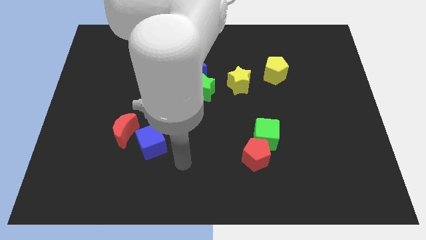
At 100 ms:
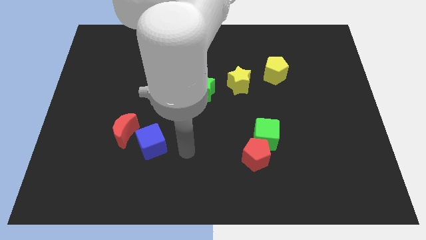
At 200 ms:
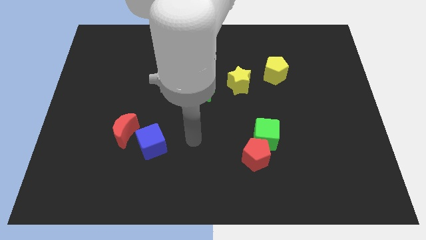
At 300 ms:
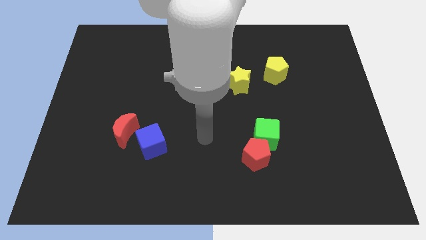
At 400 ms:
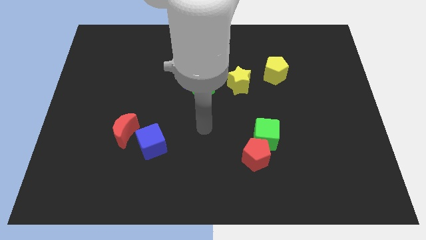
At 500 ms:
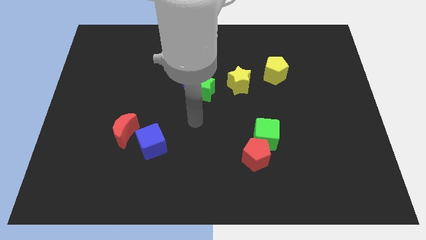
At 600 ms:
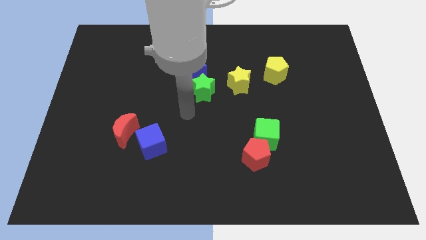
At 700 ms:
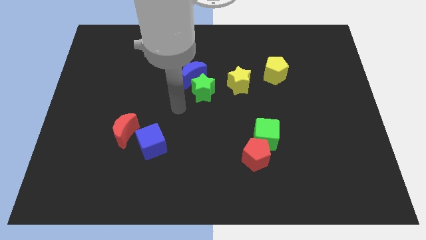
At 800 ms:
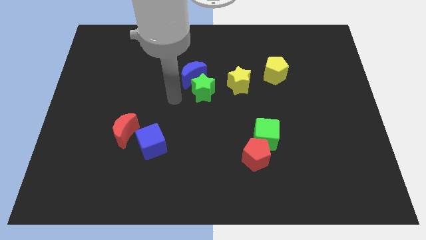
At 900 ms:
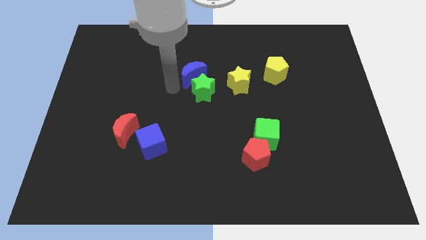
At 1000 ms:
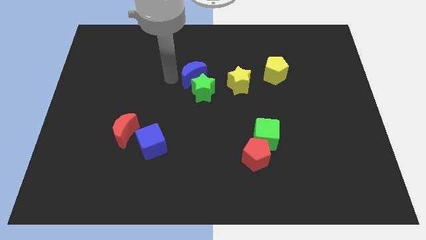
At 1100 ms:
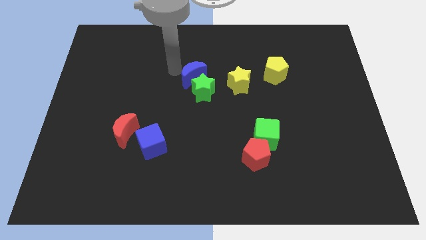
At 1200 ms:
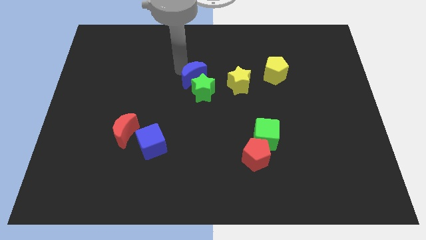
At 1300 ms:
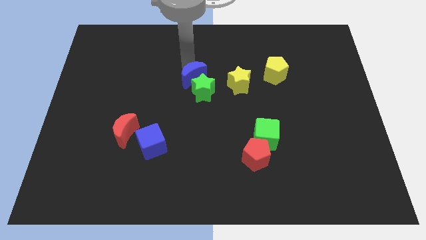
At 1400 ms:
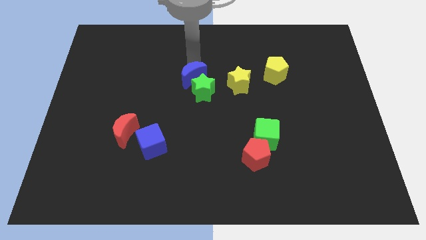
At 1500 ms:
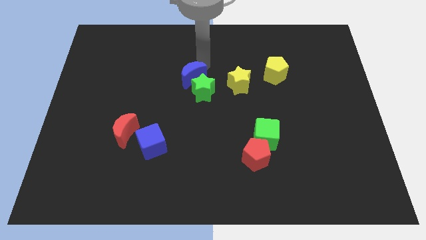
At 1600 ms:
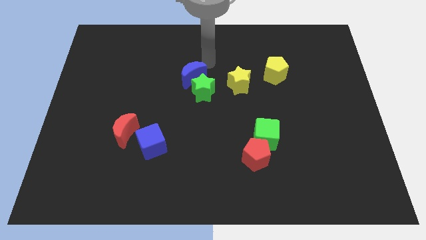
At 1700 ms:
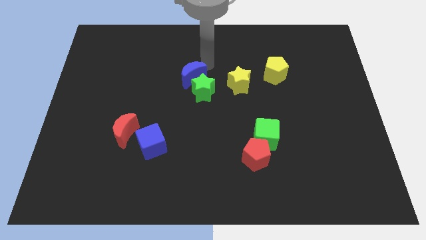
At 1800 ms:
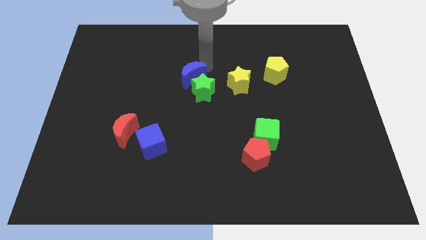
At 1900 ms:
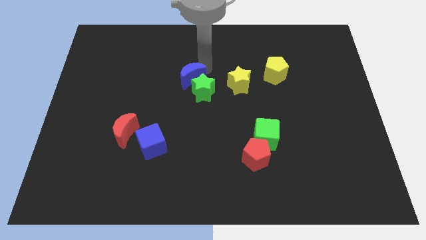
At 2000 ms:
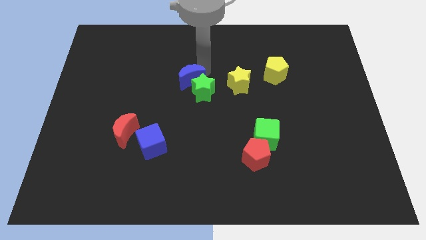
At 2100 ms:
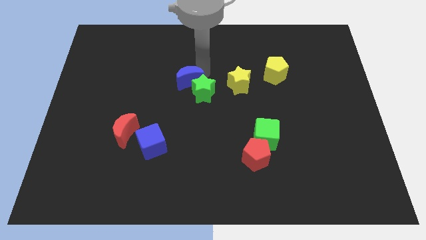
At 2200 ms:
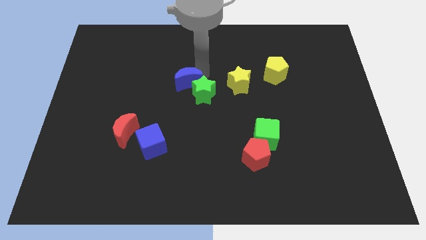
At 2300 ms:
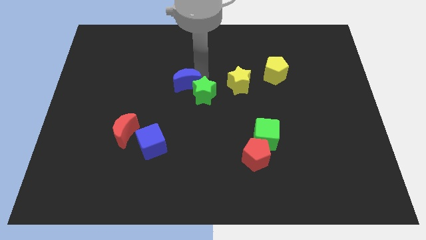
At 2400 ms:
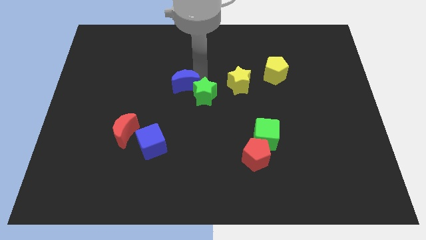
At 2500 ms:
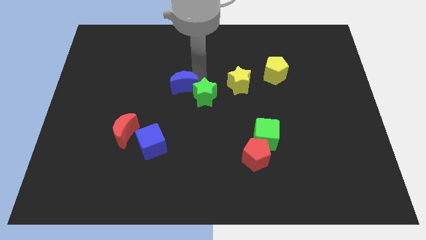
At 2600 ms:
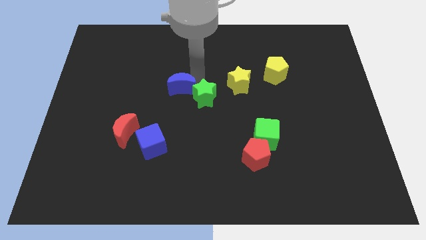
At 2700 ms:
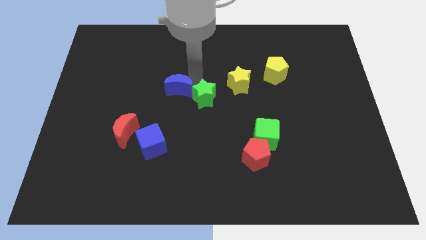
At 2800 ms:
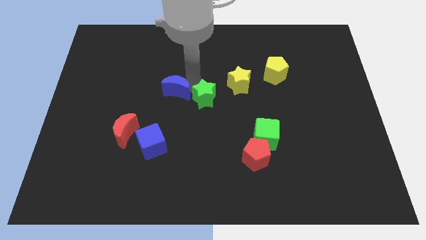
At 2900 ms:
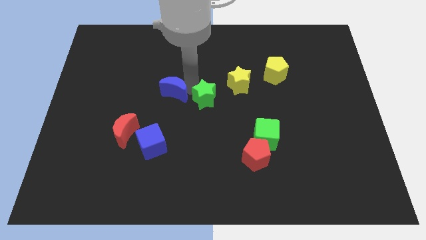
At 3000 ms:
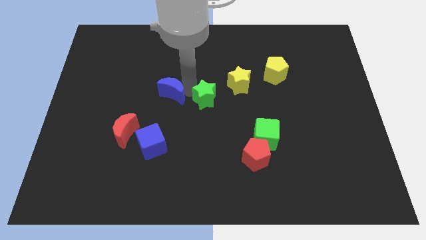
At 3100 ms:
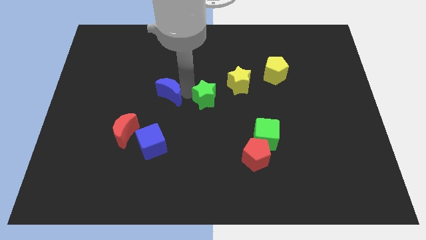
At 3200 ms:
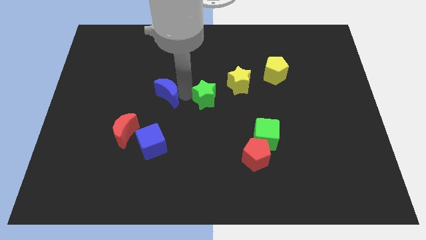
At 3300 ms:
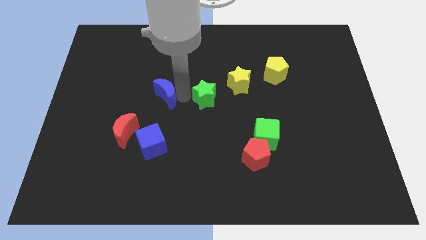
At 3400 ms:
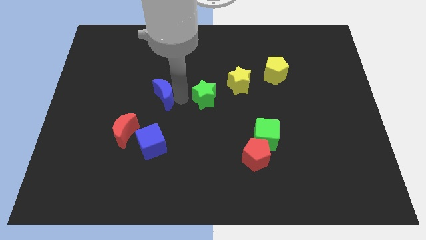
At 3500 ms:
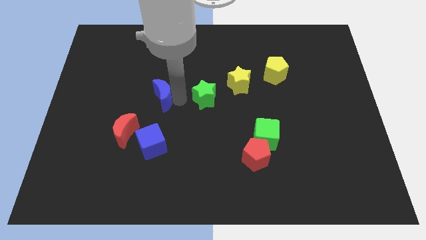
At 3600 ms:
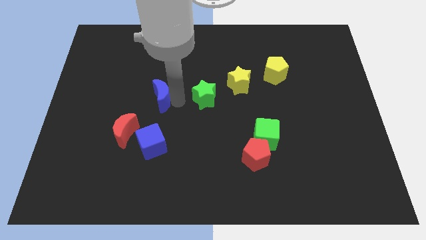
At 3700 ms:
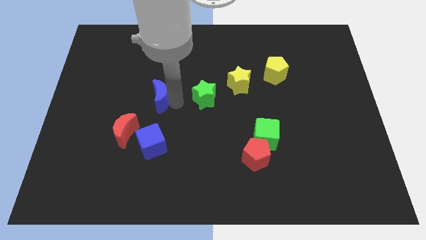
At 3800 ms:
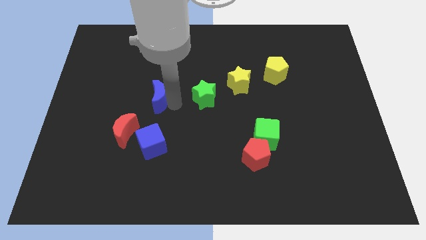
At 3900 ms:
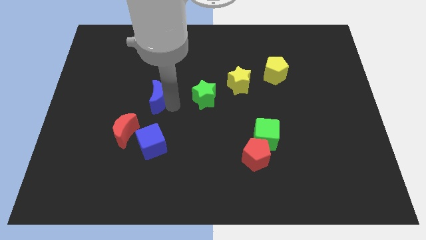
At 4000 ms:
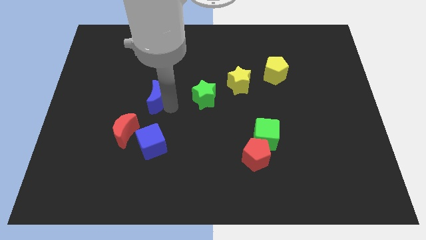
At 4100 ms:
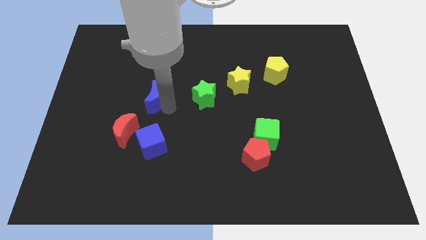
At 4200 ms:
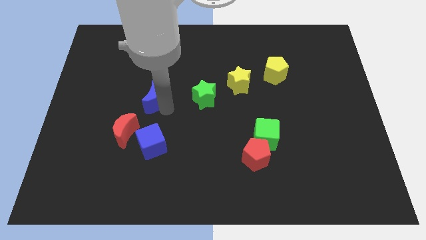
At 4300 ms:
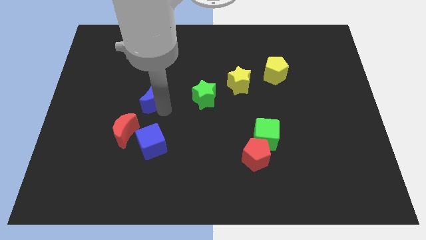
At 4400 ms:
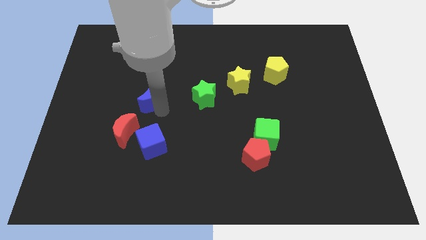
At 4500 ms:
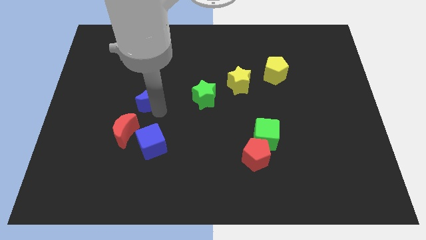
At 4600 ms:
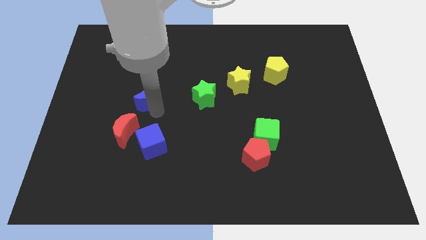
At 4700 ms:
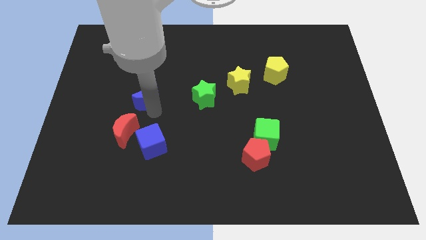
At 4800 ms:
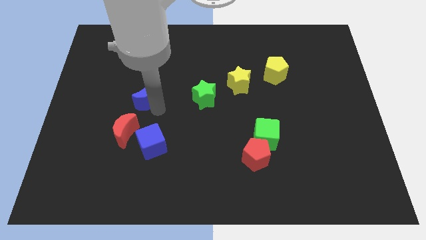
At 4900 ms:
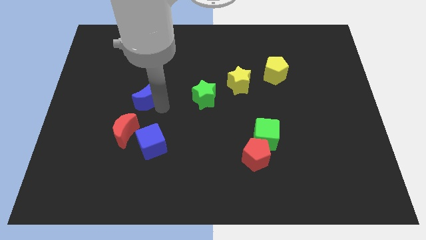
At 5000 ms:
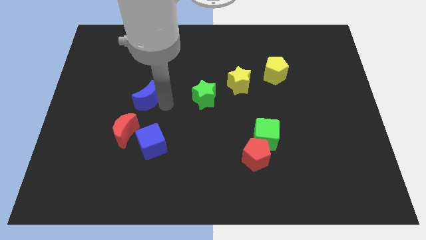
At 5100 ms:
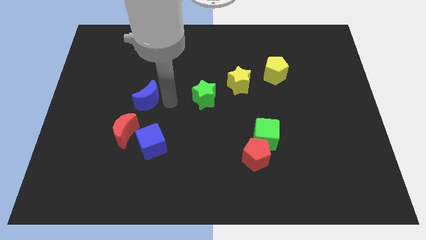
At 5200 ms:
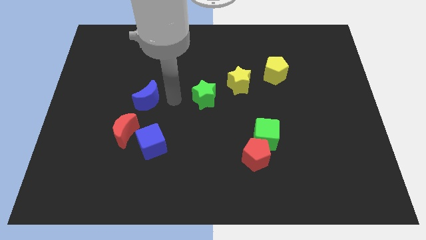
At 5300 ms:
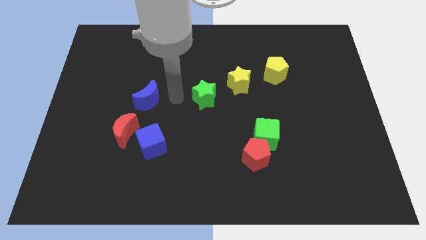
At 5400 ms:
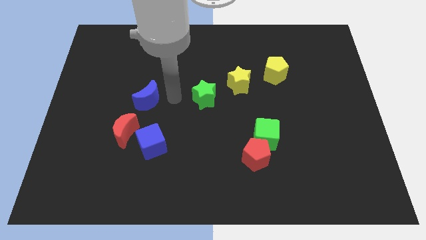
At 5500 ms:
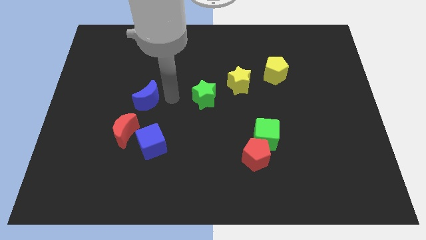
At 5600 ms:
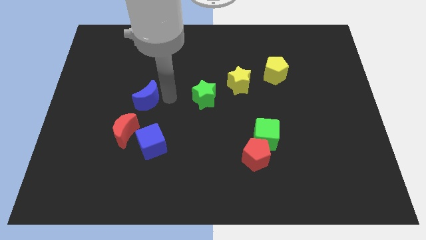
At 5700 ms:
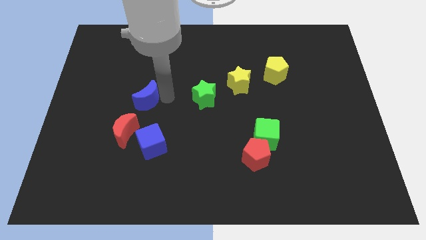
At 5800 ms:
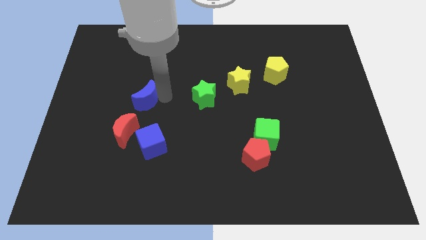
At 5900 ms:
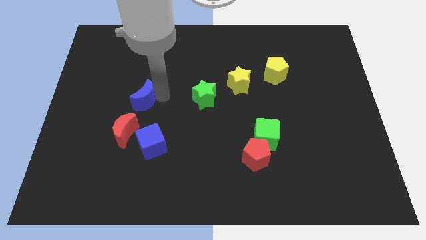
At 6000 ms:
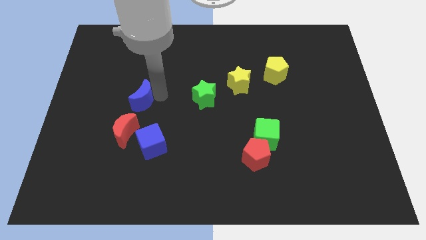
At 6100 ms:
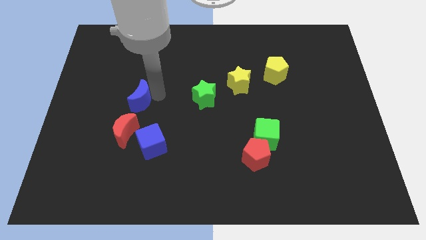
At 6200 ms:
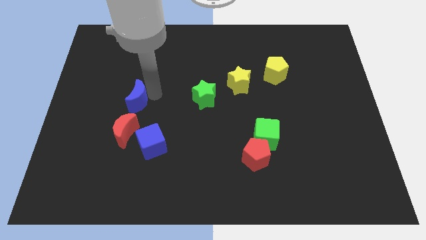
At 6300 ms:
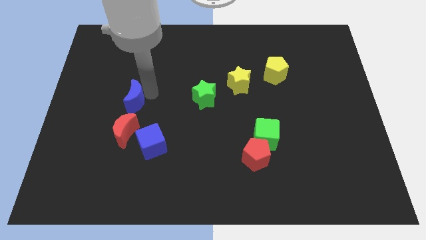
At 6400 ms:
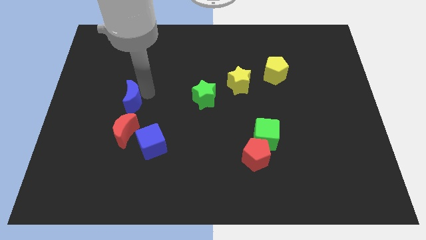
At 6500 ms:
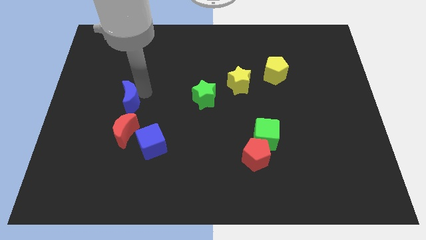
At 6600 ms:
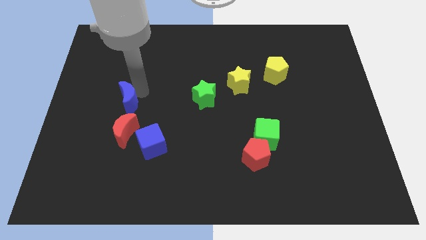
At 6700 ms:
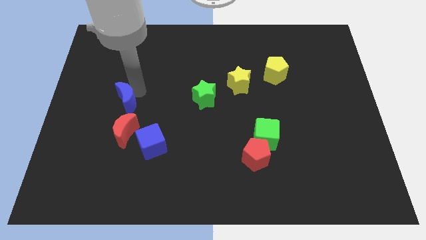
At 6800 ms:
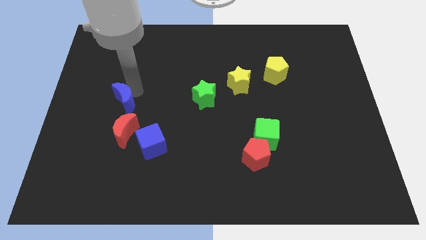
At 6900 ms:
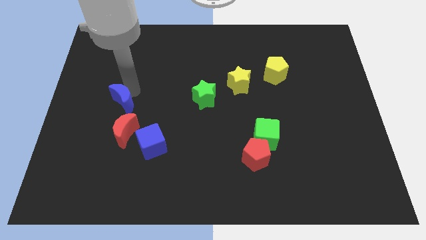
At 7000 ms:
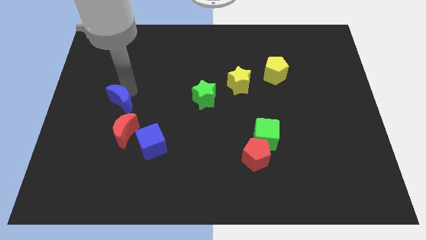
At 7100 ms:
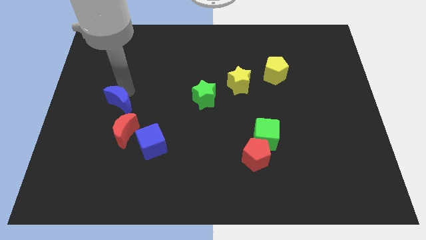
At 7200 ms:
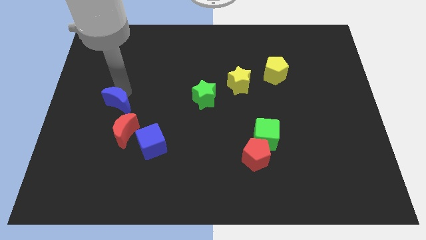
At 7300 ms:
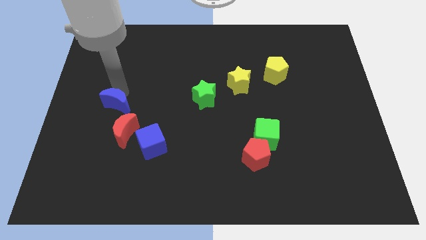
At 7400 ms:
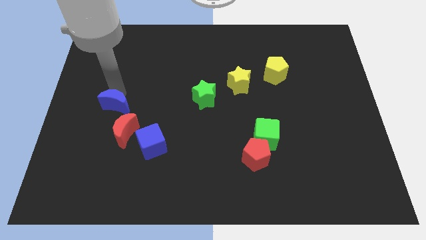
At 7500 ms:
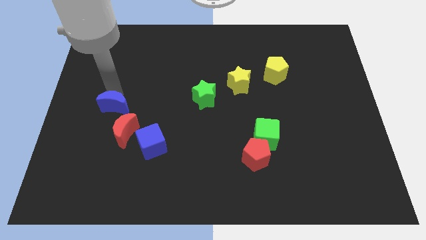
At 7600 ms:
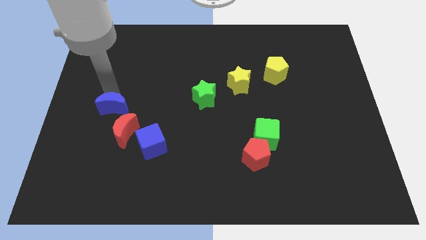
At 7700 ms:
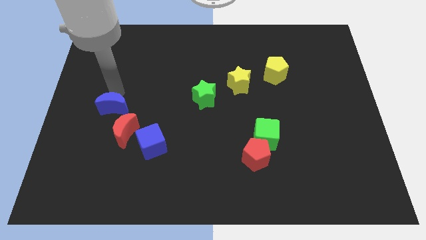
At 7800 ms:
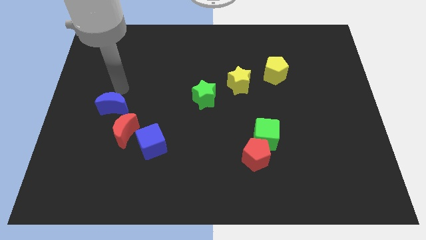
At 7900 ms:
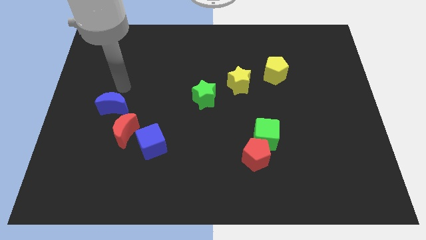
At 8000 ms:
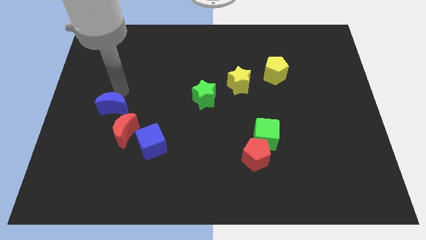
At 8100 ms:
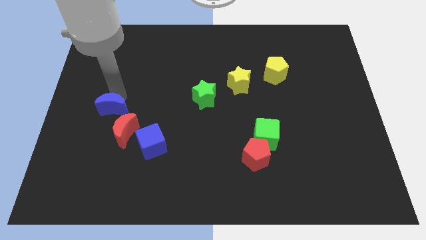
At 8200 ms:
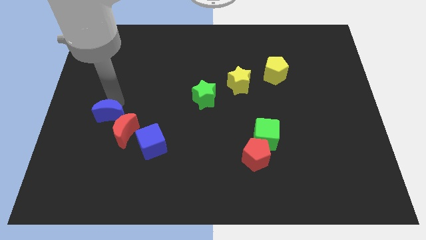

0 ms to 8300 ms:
slide the blue moon diagonally down and to the left
